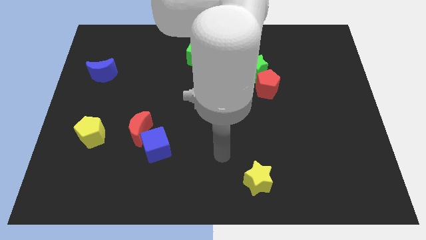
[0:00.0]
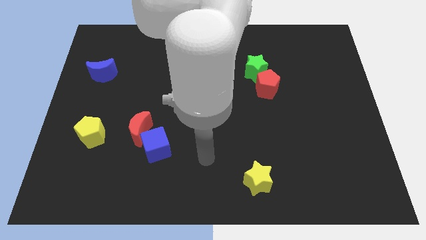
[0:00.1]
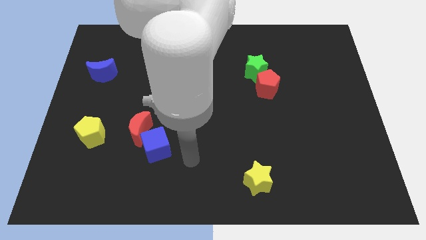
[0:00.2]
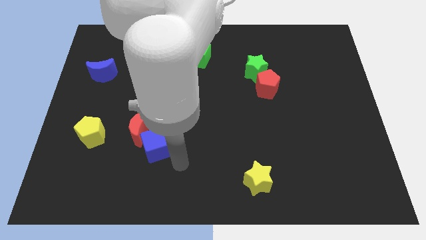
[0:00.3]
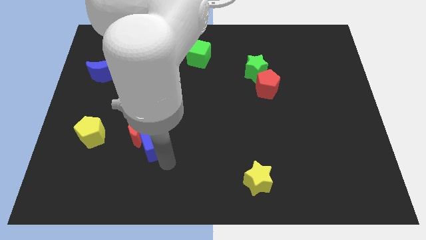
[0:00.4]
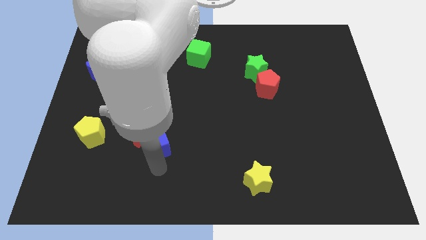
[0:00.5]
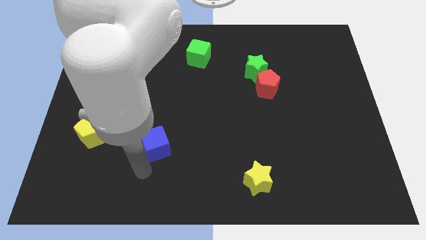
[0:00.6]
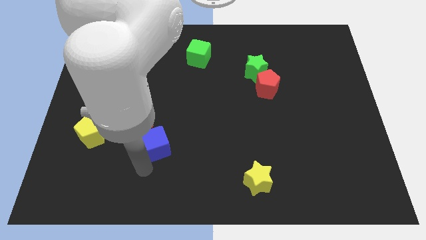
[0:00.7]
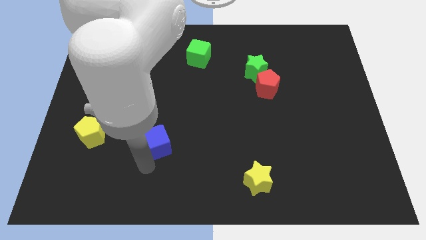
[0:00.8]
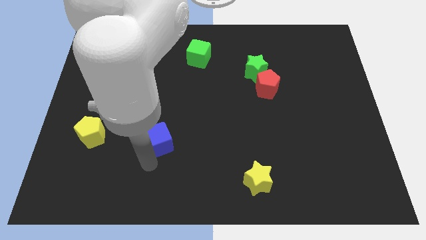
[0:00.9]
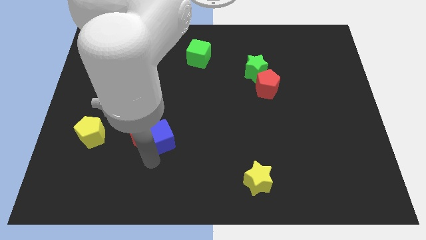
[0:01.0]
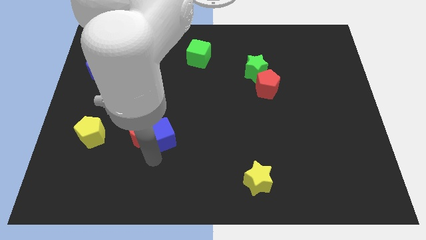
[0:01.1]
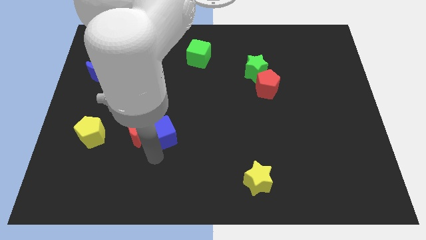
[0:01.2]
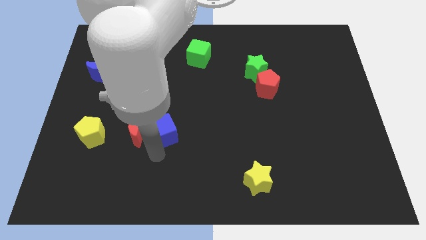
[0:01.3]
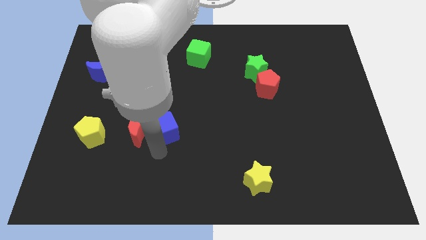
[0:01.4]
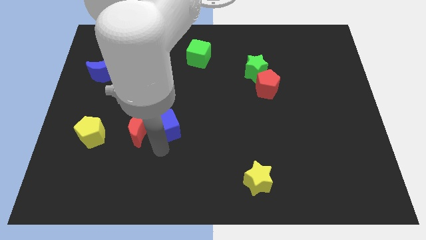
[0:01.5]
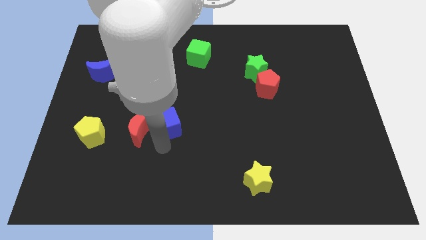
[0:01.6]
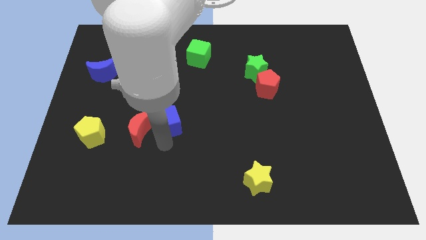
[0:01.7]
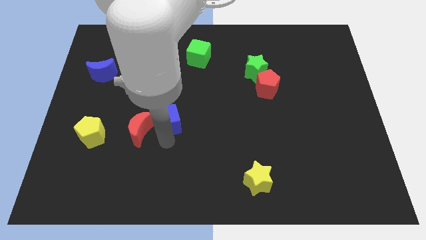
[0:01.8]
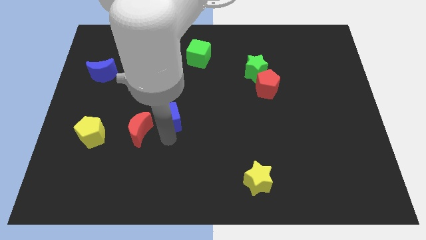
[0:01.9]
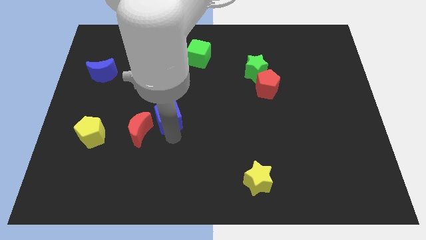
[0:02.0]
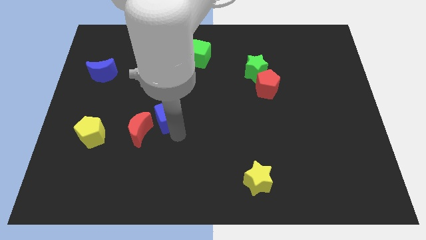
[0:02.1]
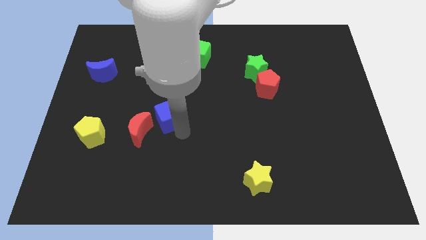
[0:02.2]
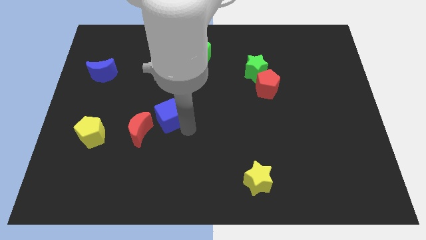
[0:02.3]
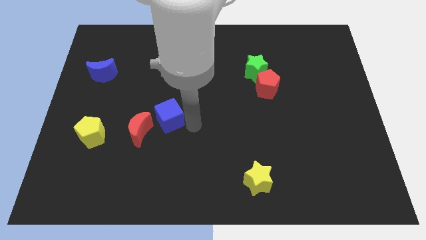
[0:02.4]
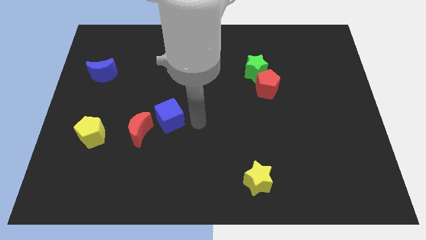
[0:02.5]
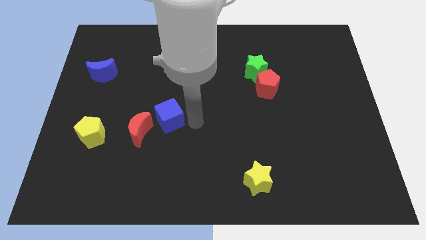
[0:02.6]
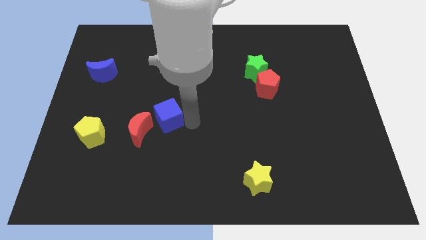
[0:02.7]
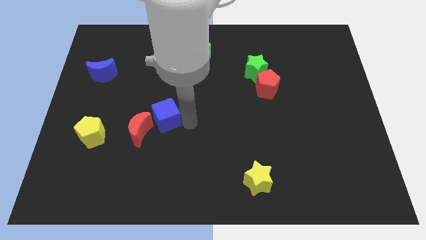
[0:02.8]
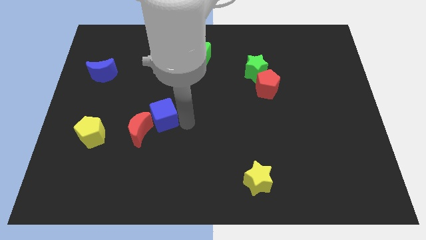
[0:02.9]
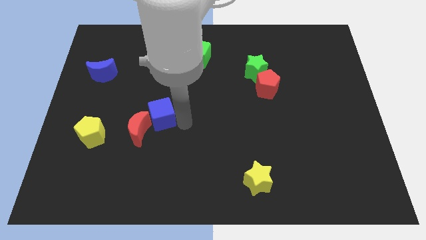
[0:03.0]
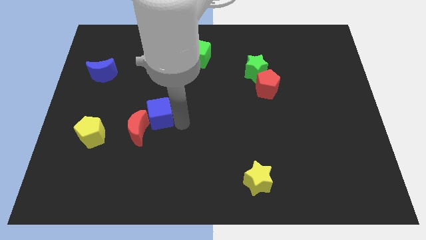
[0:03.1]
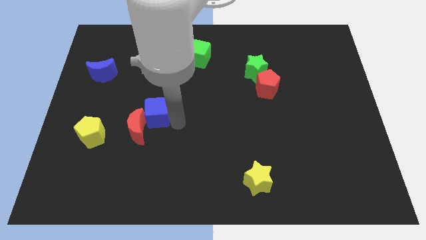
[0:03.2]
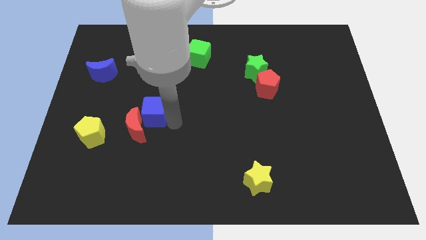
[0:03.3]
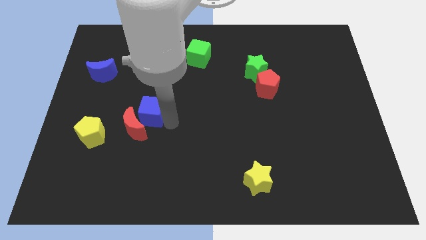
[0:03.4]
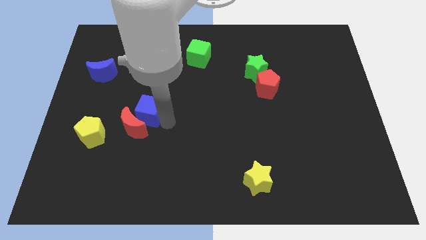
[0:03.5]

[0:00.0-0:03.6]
move the blue cube a little bit upwards and then to the left

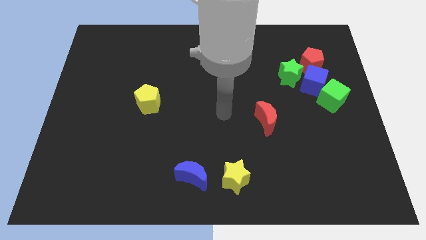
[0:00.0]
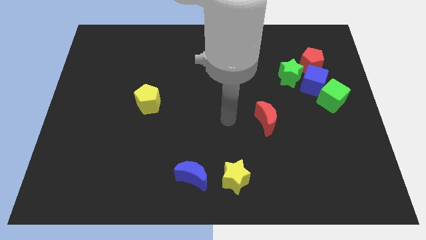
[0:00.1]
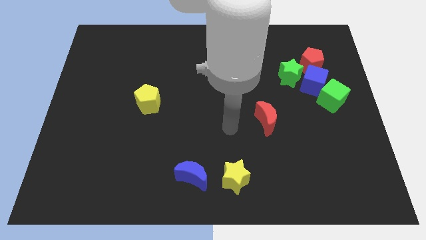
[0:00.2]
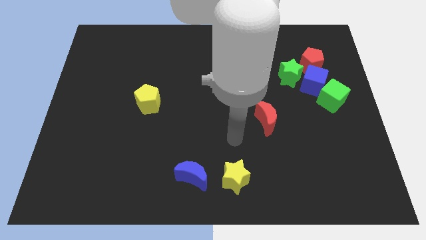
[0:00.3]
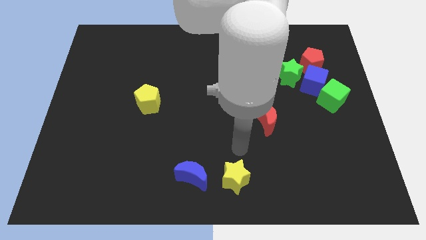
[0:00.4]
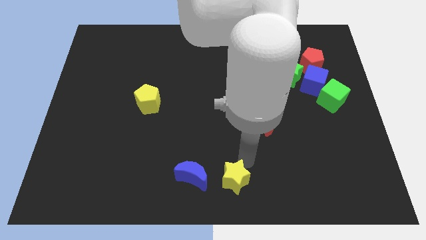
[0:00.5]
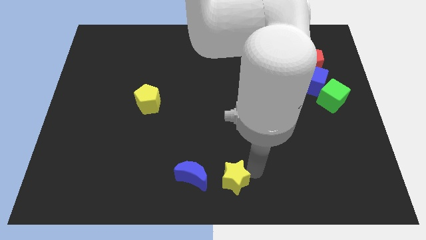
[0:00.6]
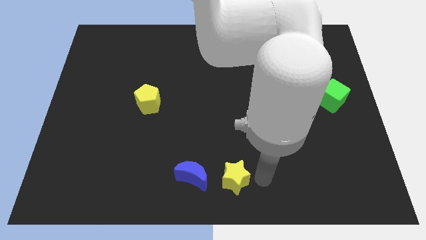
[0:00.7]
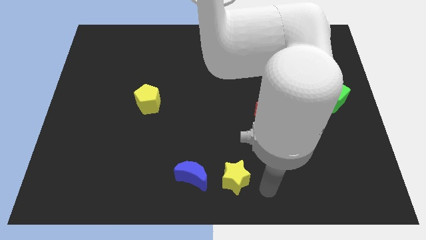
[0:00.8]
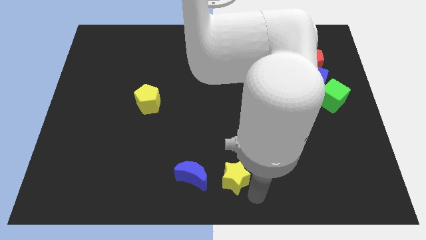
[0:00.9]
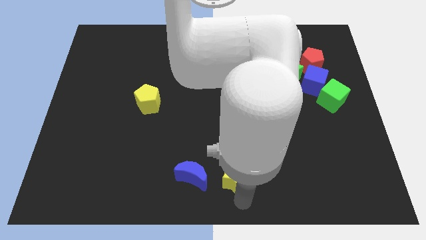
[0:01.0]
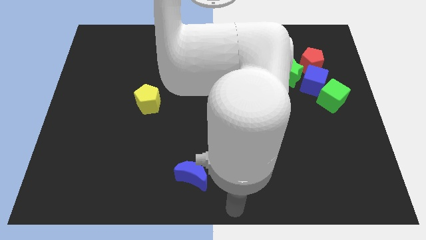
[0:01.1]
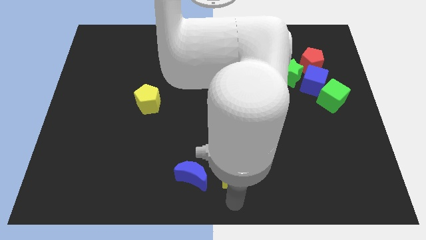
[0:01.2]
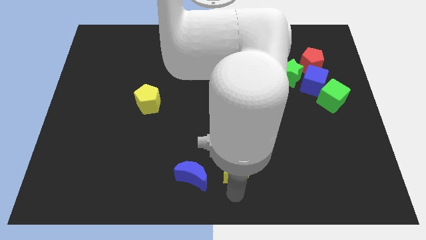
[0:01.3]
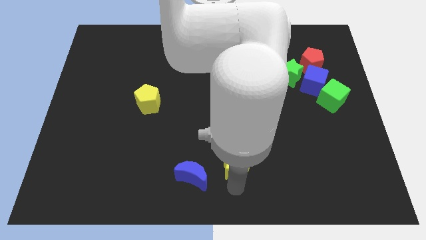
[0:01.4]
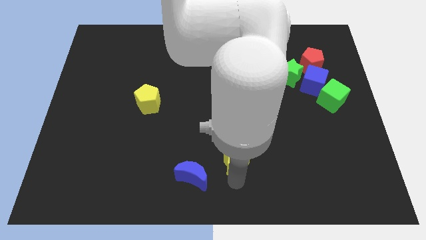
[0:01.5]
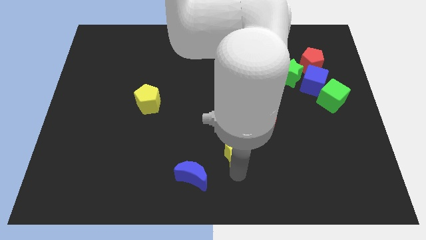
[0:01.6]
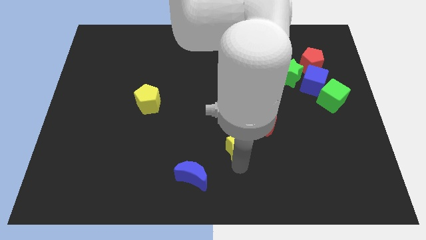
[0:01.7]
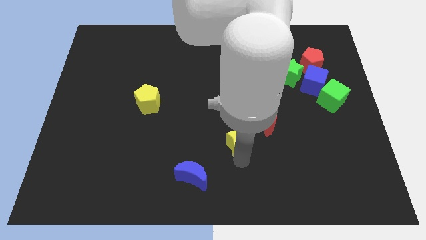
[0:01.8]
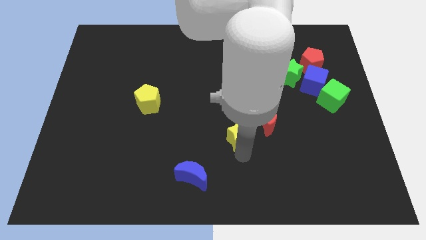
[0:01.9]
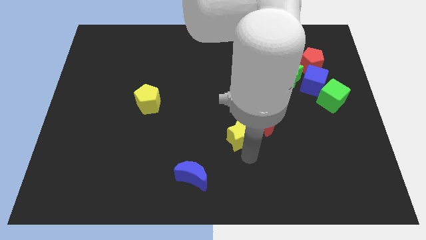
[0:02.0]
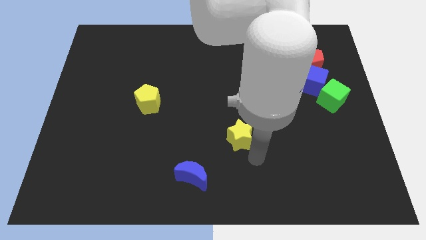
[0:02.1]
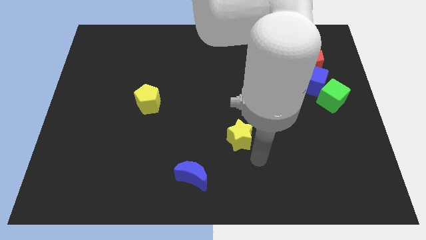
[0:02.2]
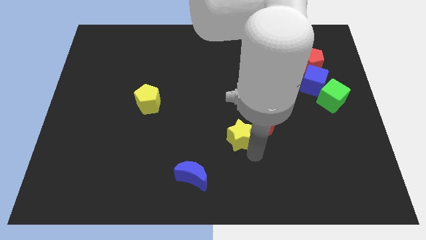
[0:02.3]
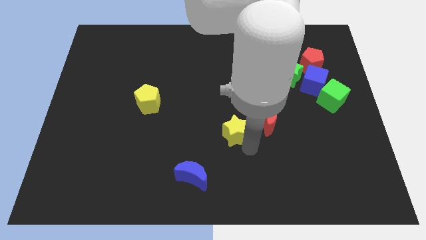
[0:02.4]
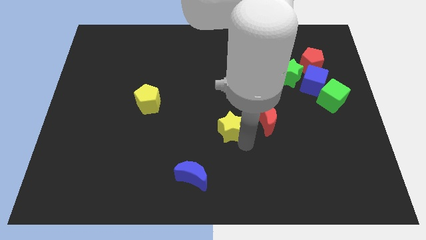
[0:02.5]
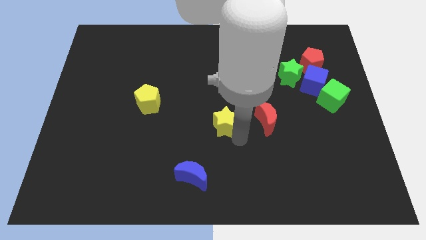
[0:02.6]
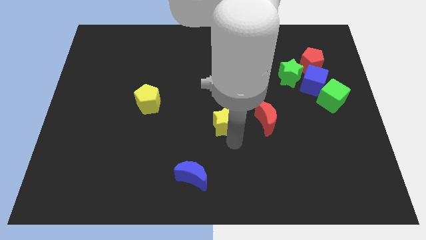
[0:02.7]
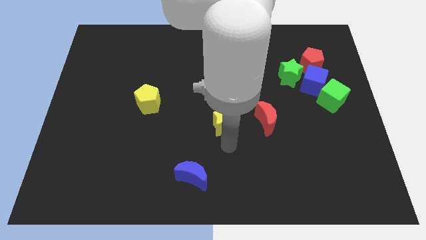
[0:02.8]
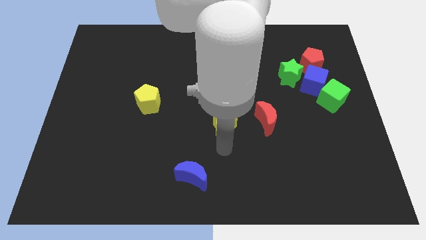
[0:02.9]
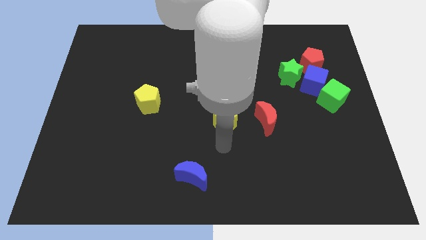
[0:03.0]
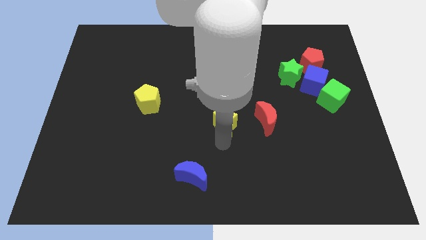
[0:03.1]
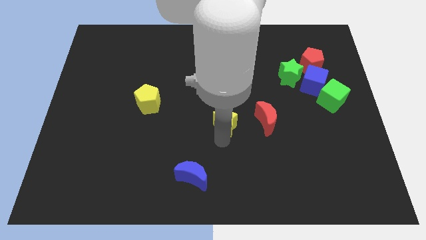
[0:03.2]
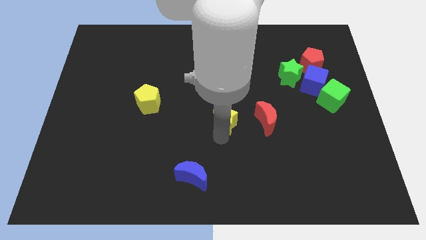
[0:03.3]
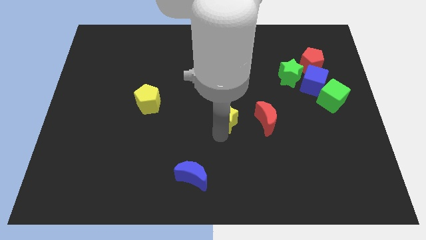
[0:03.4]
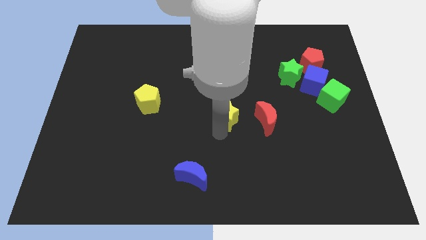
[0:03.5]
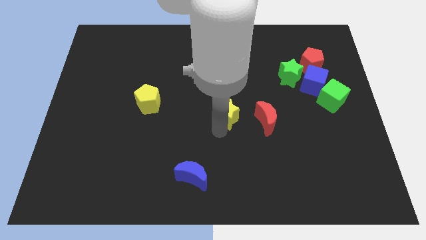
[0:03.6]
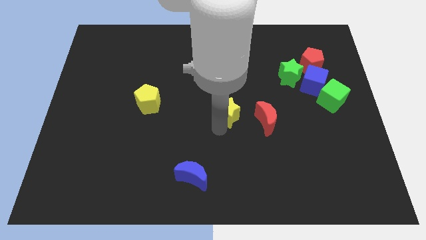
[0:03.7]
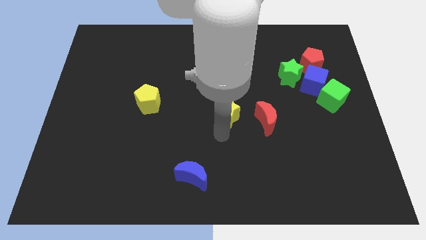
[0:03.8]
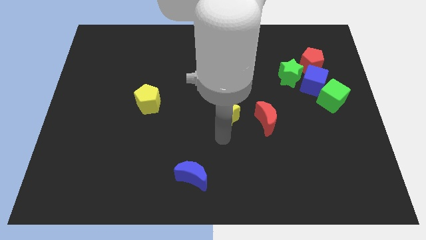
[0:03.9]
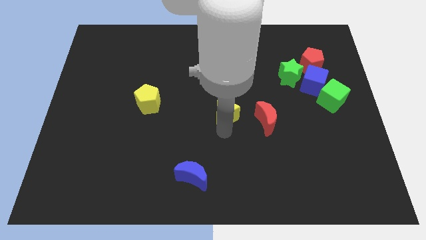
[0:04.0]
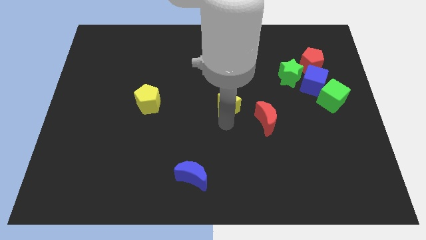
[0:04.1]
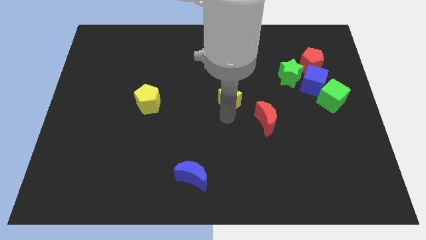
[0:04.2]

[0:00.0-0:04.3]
slide the yellow star upwards

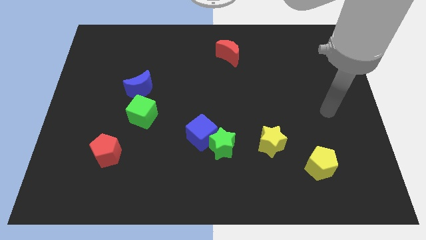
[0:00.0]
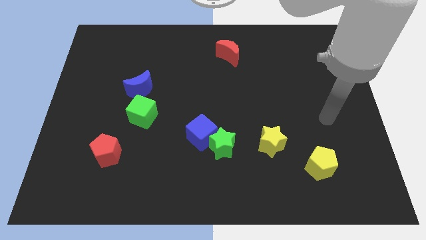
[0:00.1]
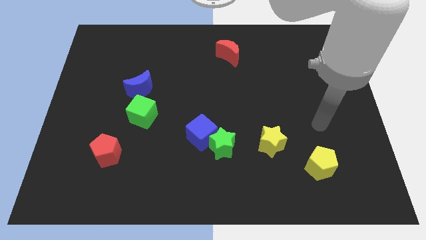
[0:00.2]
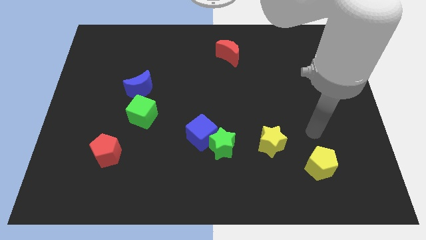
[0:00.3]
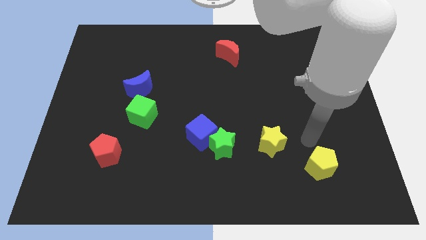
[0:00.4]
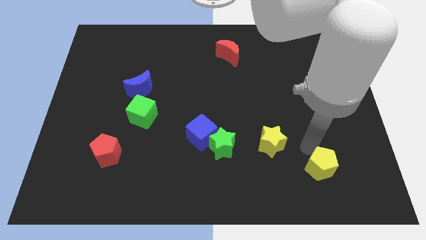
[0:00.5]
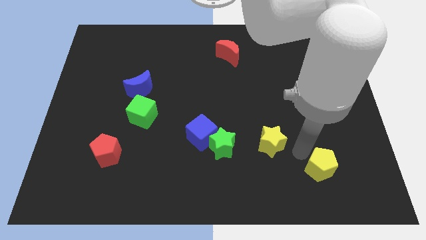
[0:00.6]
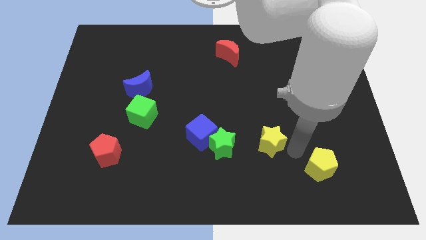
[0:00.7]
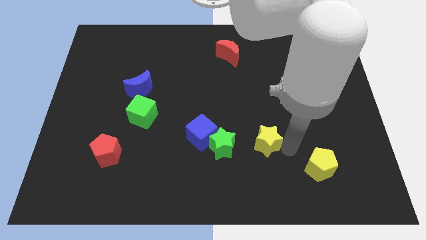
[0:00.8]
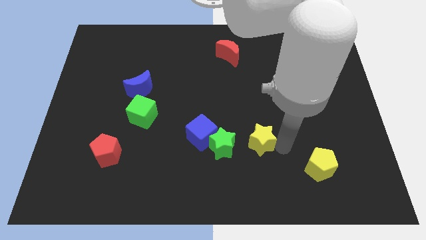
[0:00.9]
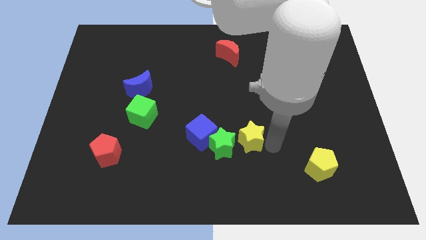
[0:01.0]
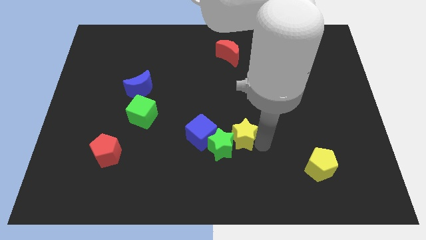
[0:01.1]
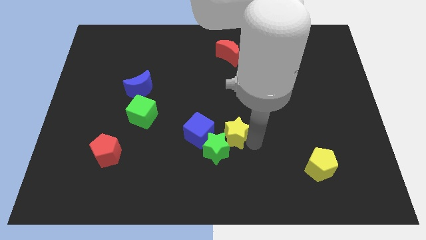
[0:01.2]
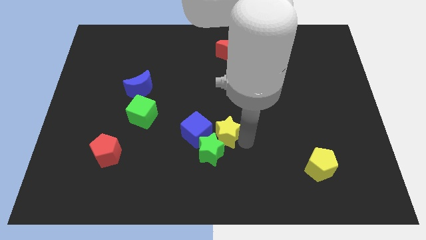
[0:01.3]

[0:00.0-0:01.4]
move the yellow star a little bit upwards and then left
